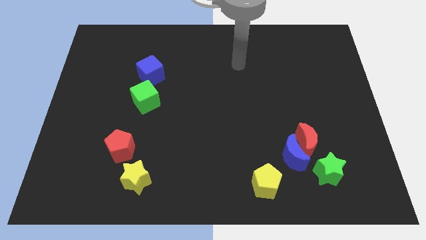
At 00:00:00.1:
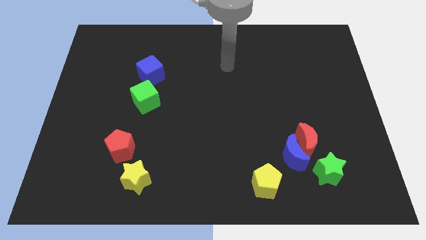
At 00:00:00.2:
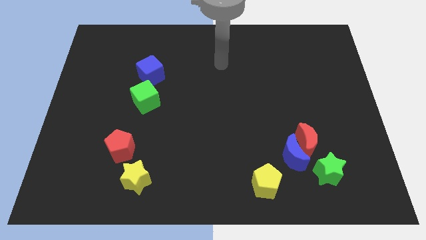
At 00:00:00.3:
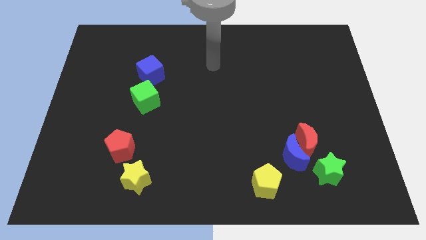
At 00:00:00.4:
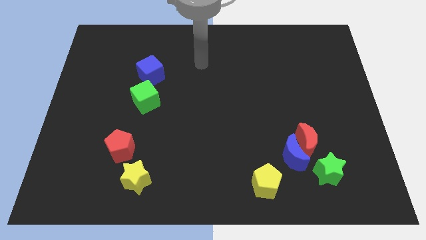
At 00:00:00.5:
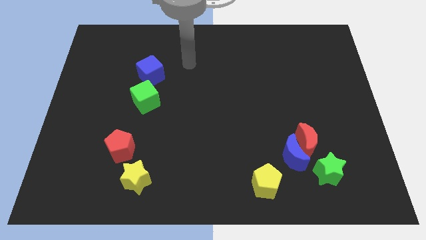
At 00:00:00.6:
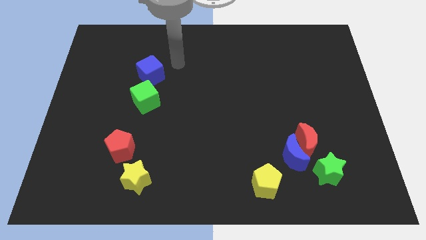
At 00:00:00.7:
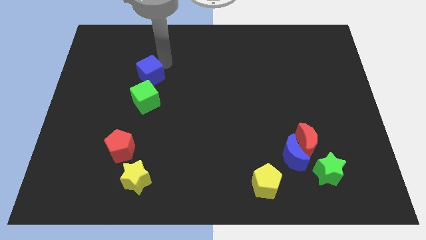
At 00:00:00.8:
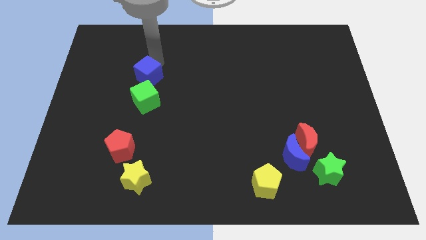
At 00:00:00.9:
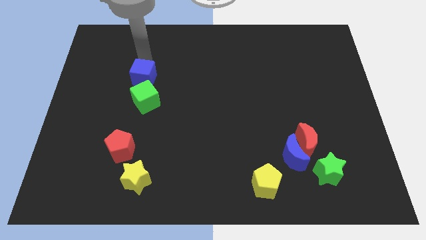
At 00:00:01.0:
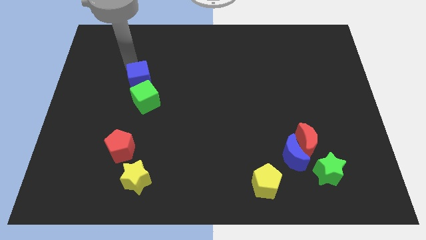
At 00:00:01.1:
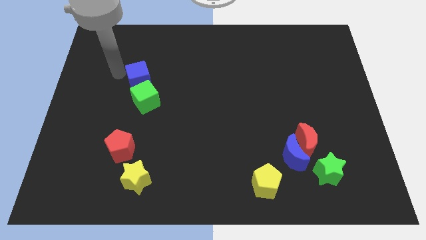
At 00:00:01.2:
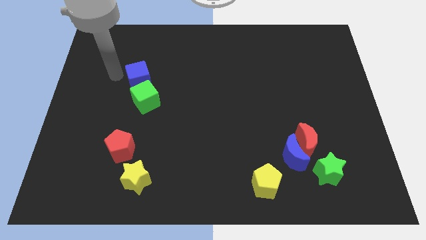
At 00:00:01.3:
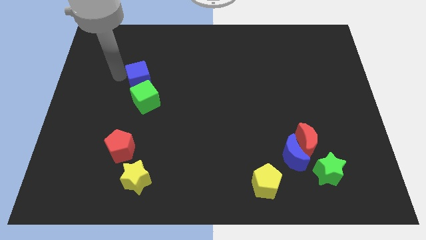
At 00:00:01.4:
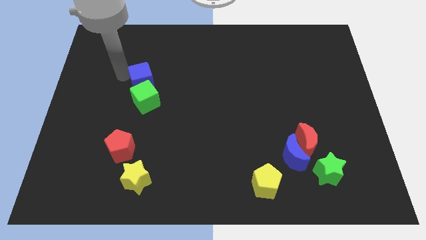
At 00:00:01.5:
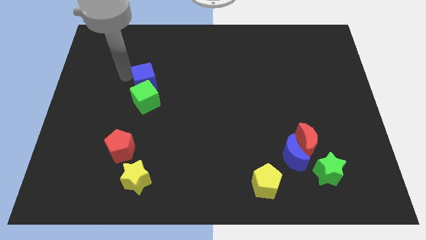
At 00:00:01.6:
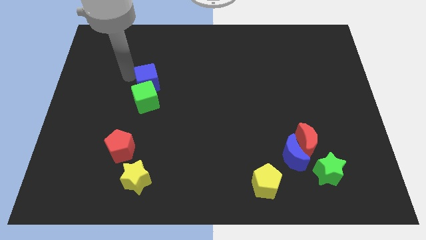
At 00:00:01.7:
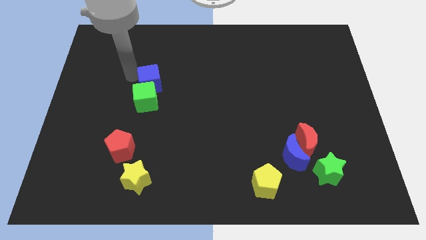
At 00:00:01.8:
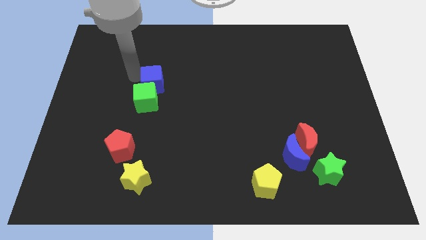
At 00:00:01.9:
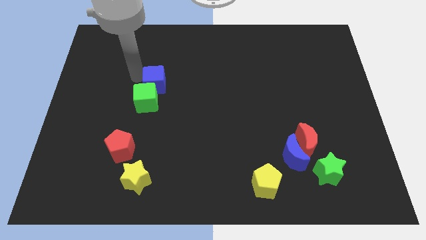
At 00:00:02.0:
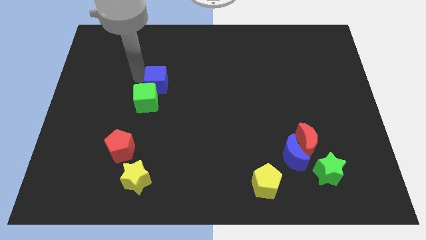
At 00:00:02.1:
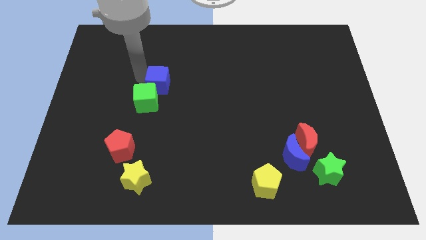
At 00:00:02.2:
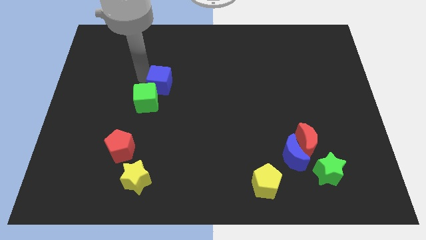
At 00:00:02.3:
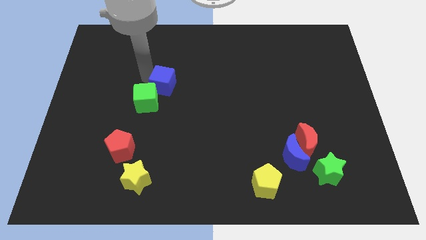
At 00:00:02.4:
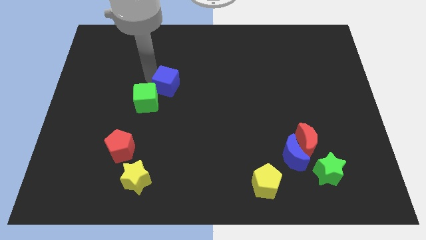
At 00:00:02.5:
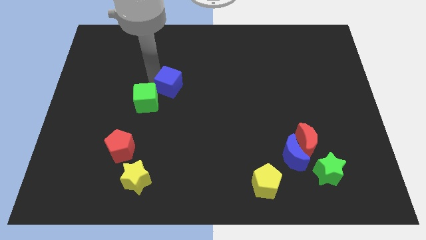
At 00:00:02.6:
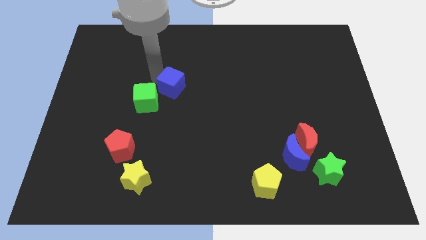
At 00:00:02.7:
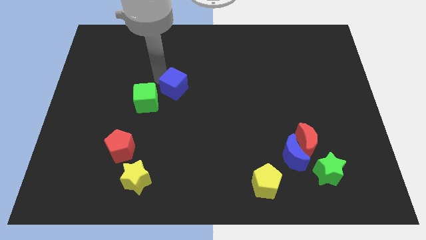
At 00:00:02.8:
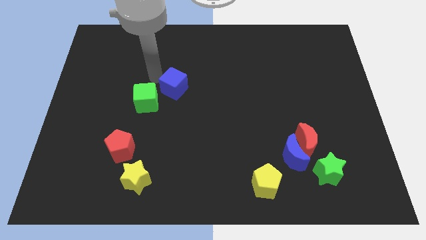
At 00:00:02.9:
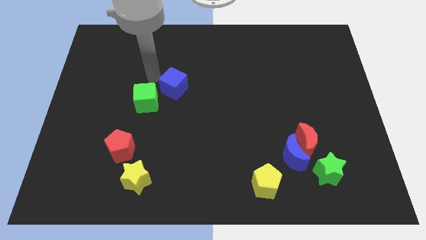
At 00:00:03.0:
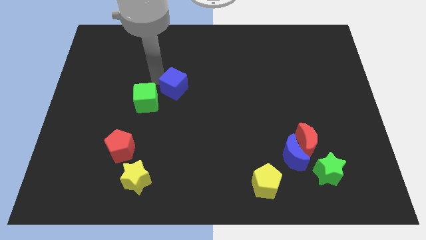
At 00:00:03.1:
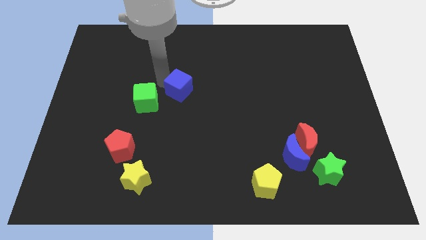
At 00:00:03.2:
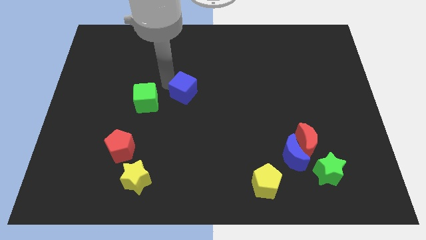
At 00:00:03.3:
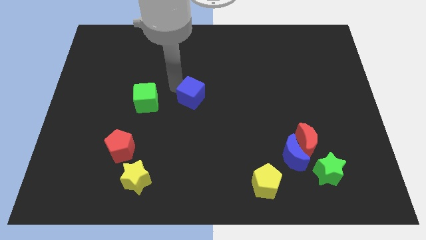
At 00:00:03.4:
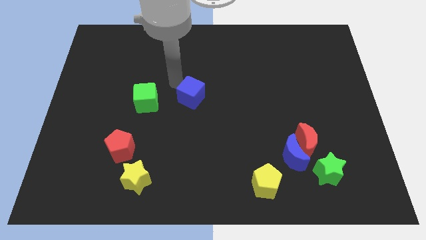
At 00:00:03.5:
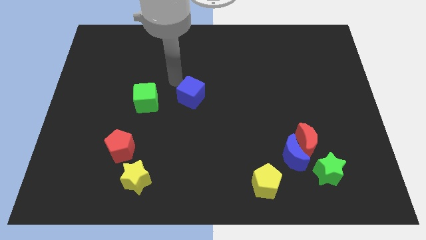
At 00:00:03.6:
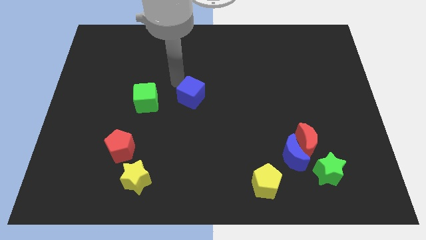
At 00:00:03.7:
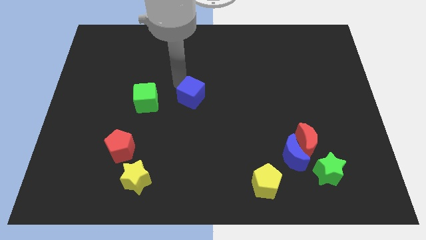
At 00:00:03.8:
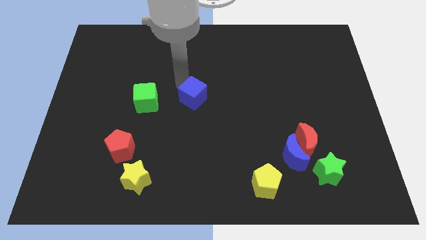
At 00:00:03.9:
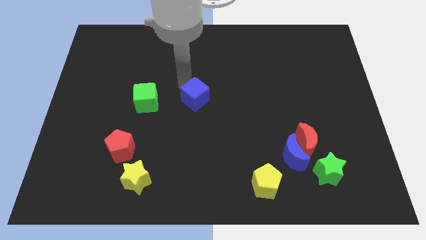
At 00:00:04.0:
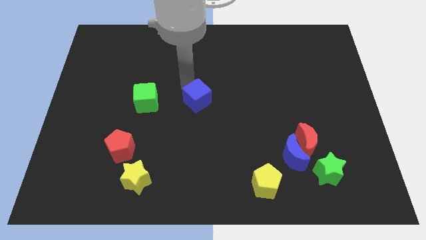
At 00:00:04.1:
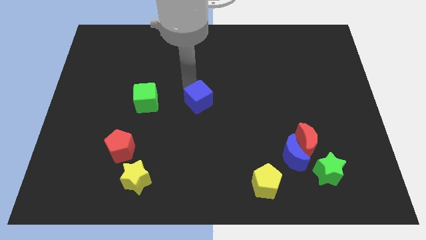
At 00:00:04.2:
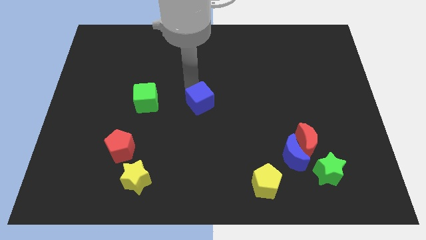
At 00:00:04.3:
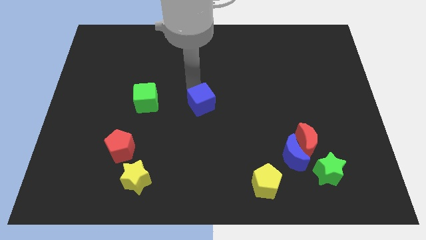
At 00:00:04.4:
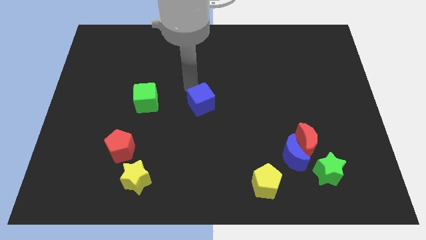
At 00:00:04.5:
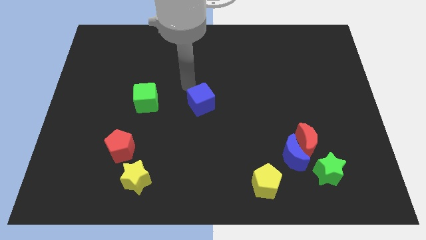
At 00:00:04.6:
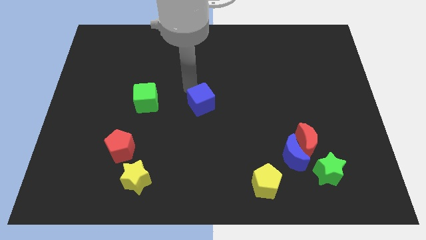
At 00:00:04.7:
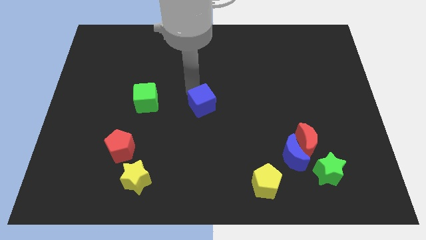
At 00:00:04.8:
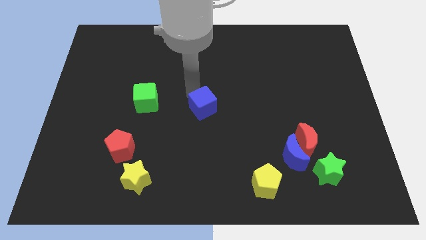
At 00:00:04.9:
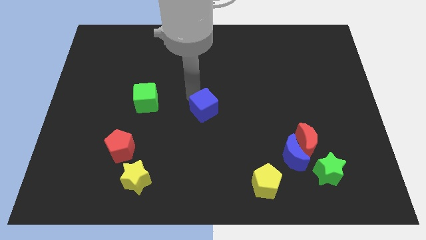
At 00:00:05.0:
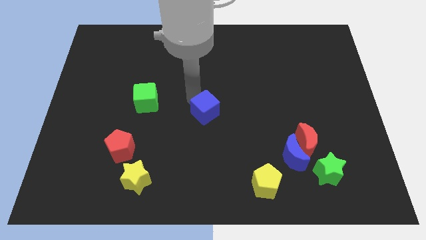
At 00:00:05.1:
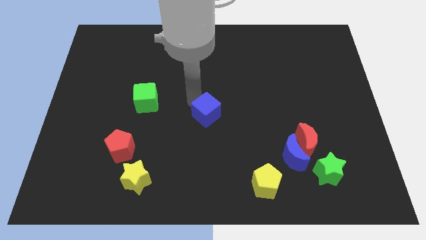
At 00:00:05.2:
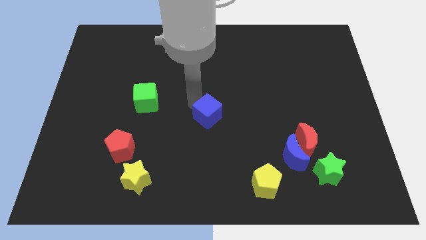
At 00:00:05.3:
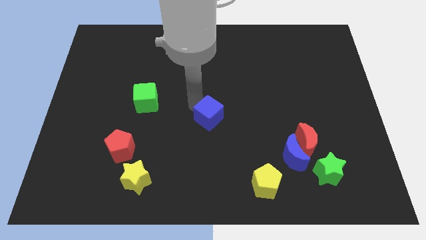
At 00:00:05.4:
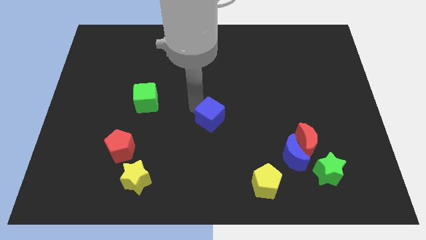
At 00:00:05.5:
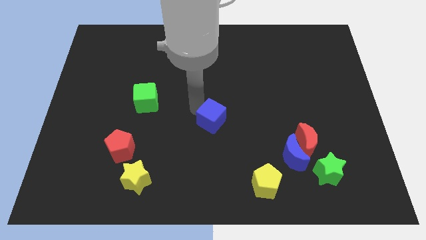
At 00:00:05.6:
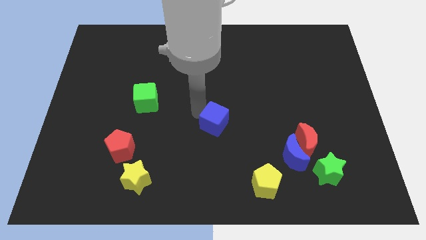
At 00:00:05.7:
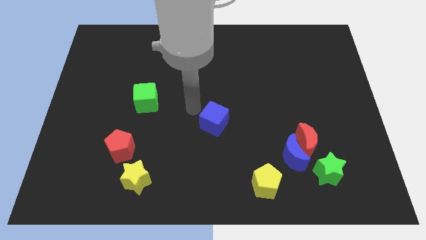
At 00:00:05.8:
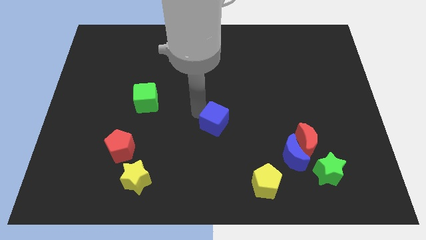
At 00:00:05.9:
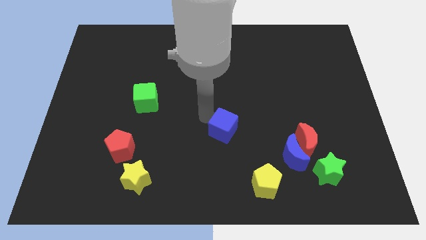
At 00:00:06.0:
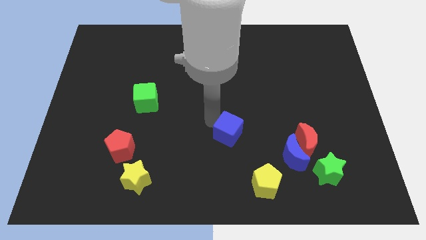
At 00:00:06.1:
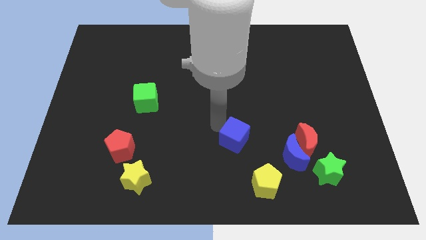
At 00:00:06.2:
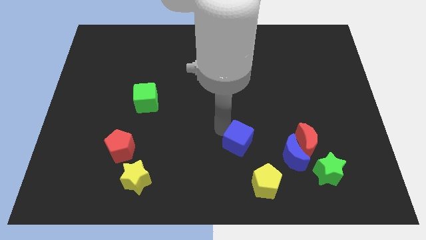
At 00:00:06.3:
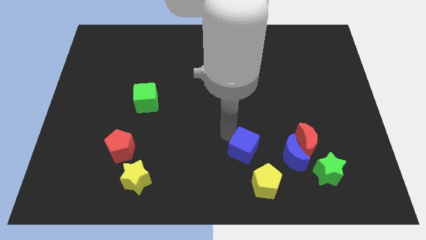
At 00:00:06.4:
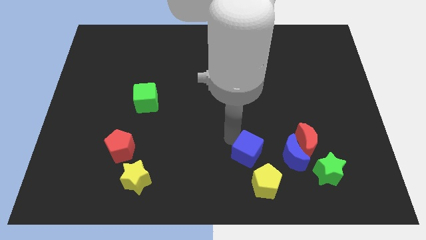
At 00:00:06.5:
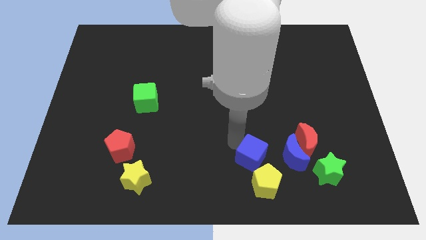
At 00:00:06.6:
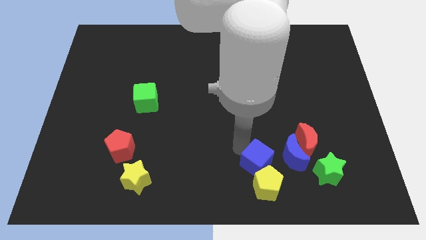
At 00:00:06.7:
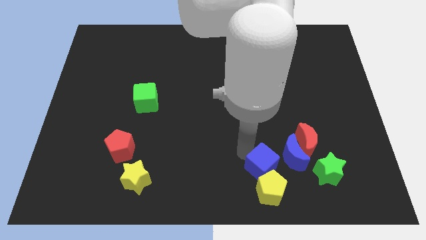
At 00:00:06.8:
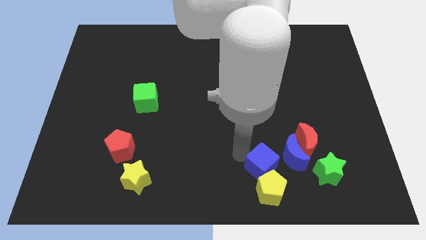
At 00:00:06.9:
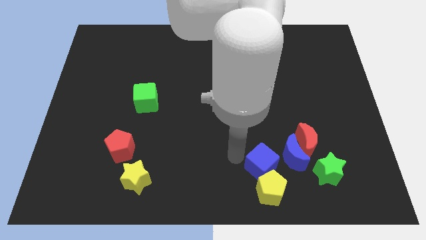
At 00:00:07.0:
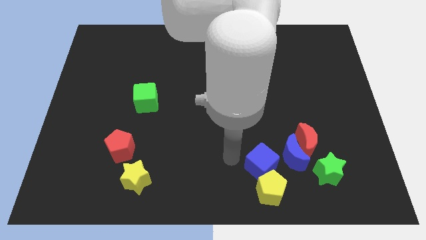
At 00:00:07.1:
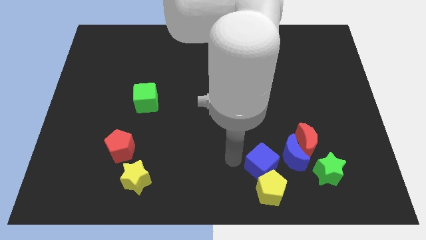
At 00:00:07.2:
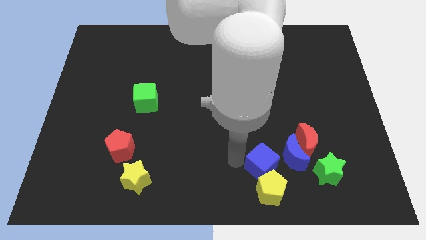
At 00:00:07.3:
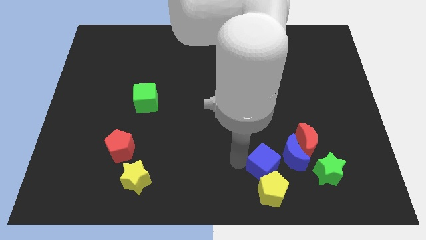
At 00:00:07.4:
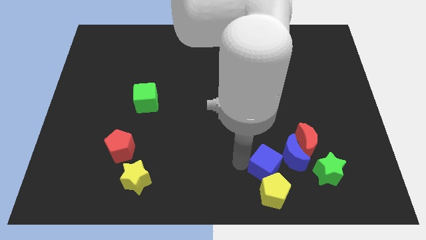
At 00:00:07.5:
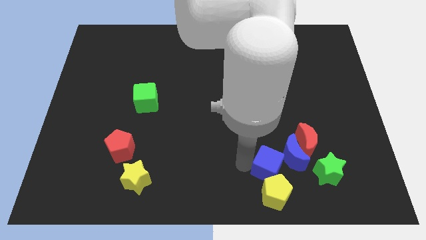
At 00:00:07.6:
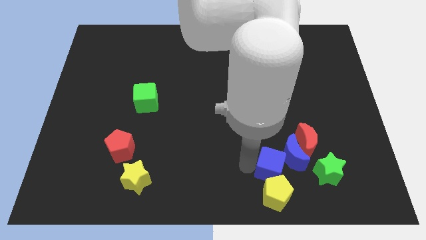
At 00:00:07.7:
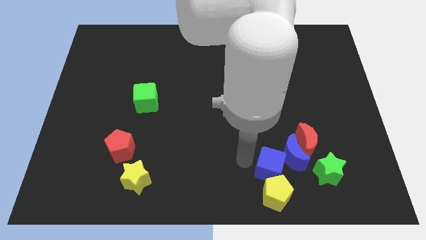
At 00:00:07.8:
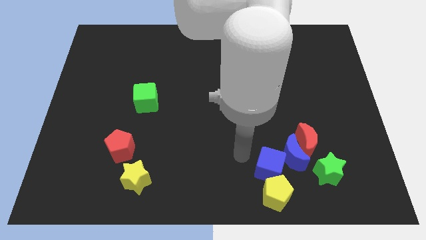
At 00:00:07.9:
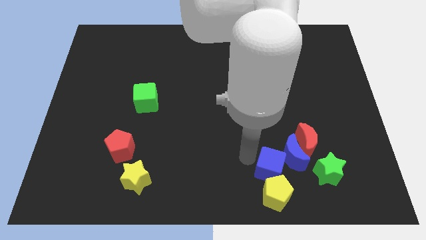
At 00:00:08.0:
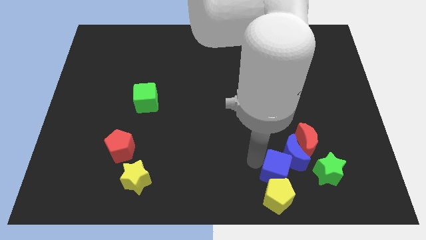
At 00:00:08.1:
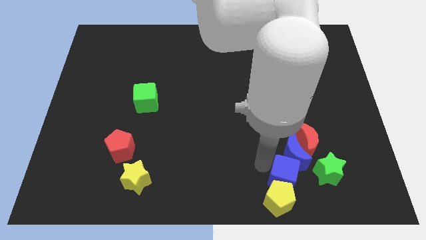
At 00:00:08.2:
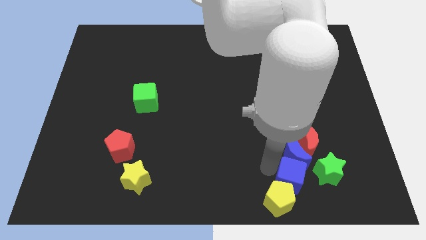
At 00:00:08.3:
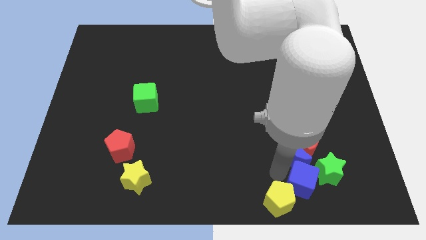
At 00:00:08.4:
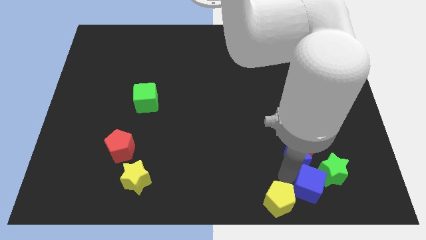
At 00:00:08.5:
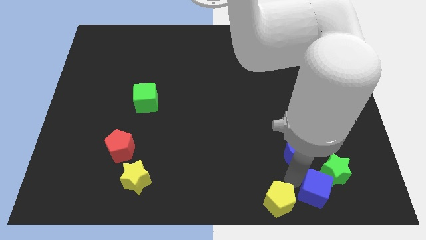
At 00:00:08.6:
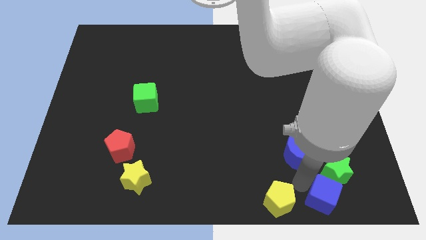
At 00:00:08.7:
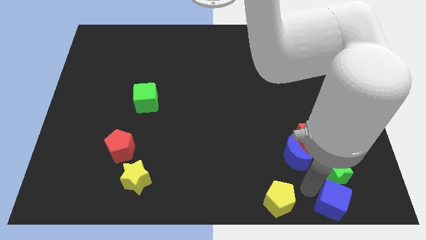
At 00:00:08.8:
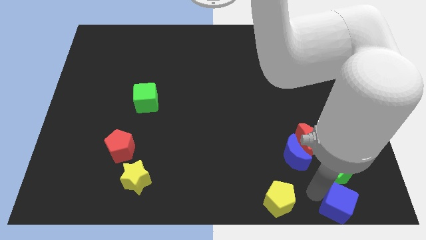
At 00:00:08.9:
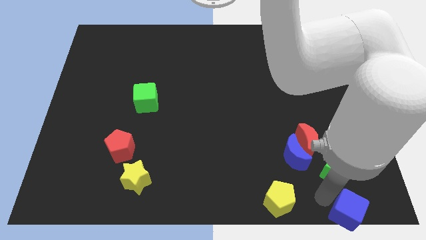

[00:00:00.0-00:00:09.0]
put the blue cube to the bottom right of the board
